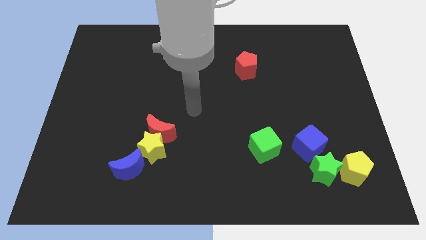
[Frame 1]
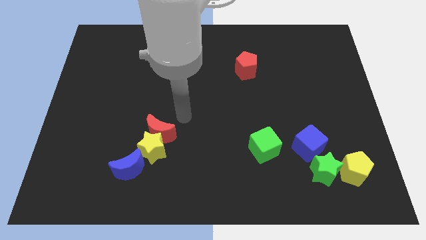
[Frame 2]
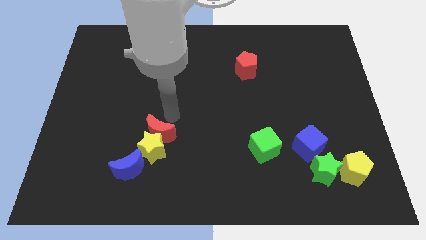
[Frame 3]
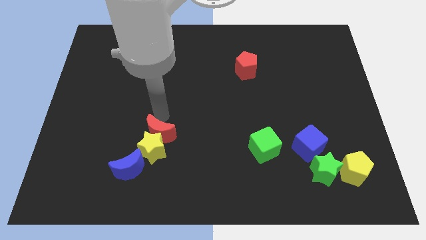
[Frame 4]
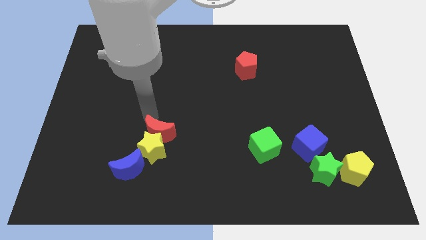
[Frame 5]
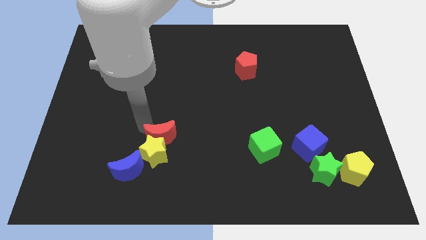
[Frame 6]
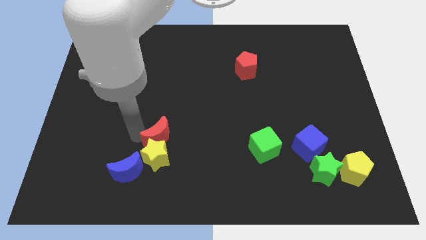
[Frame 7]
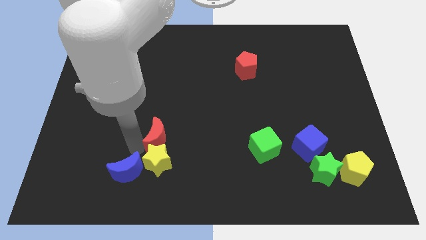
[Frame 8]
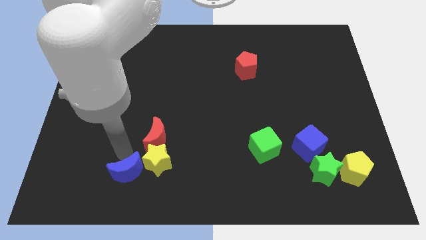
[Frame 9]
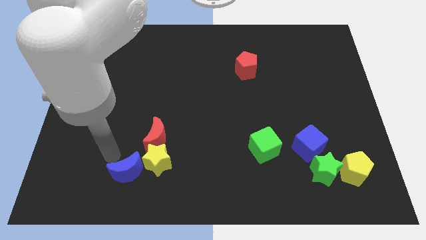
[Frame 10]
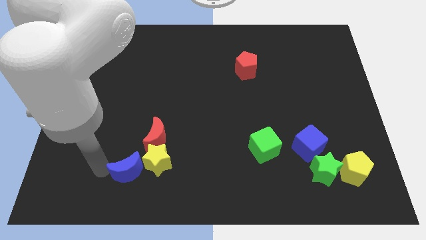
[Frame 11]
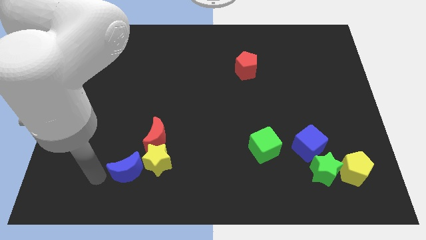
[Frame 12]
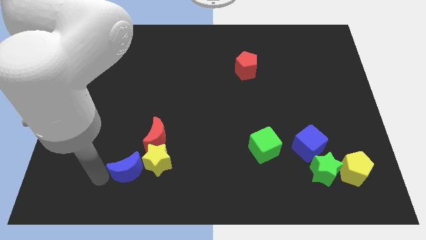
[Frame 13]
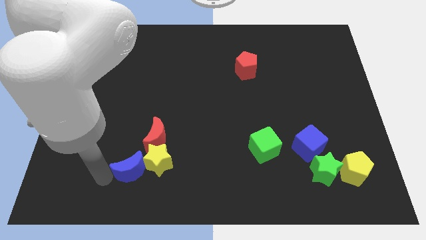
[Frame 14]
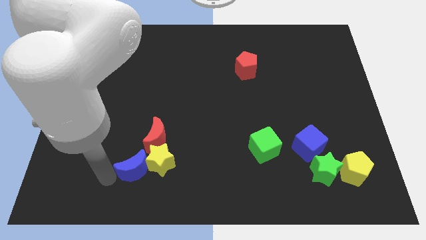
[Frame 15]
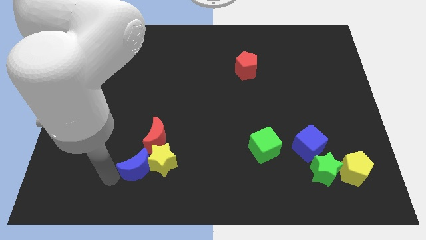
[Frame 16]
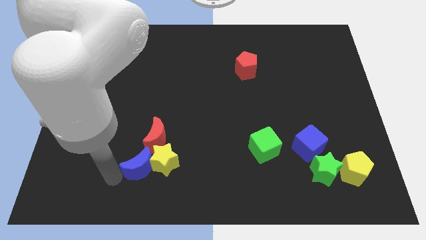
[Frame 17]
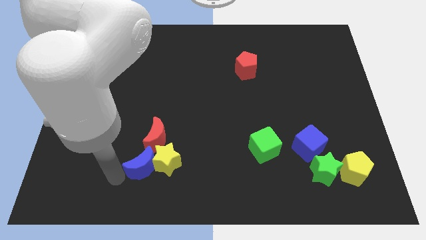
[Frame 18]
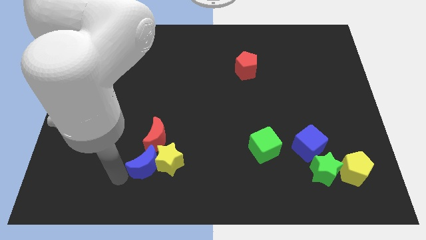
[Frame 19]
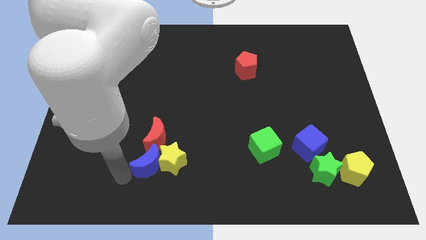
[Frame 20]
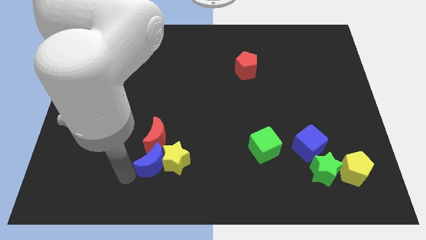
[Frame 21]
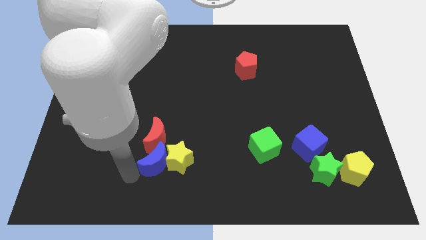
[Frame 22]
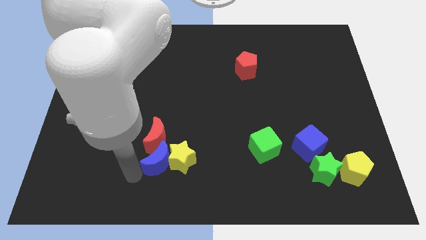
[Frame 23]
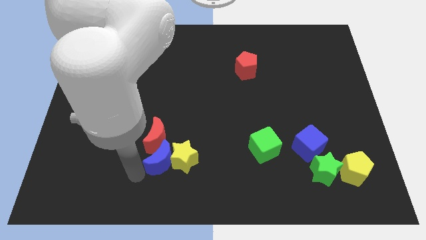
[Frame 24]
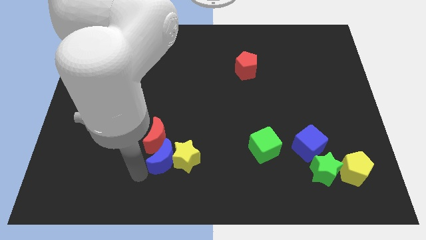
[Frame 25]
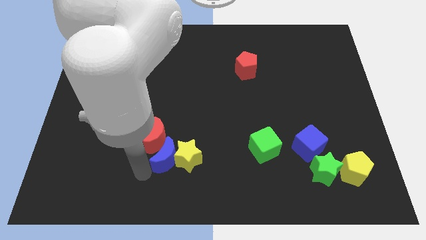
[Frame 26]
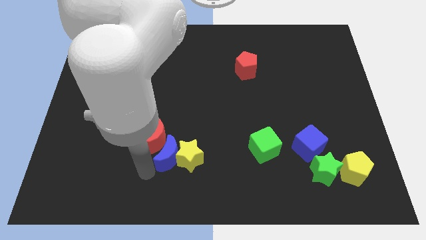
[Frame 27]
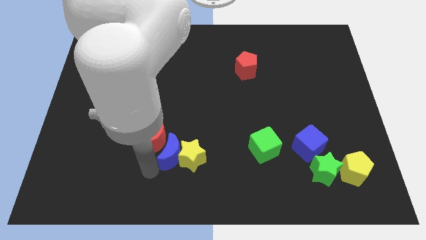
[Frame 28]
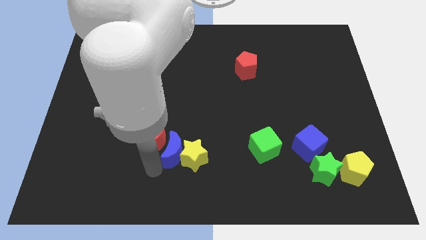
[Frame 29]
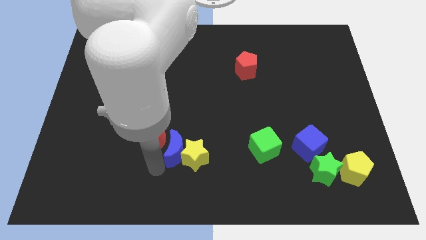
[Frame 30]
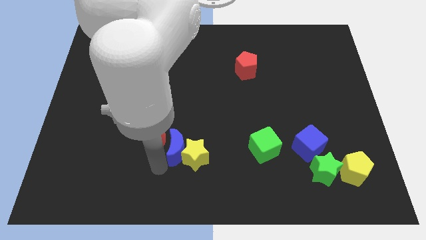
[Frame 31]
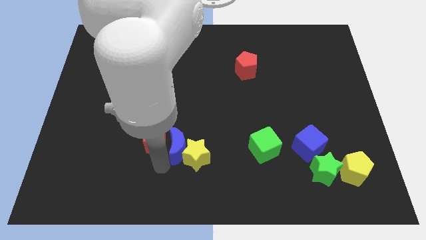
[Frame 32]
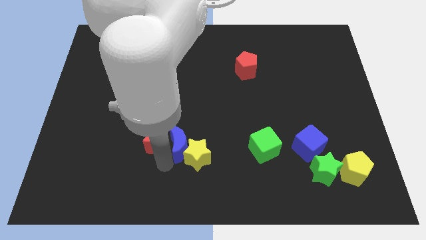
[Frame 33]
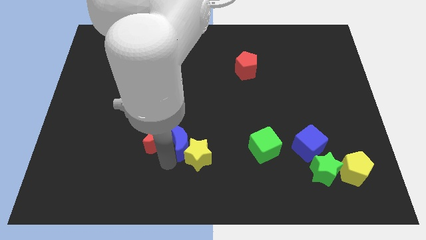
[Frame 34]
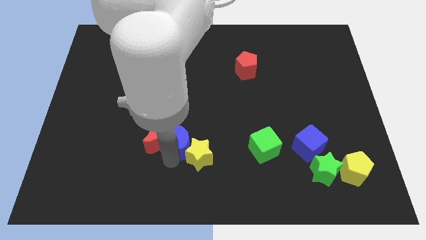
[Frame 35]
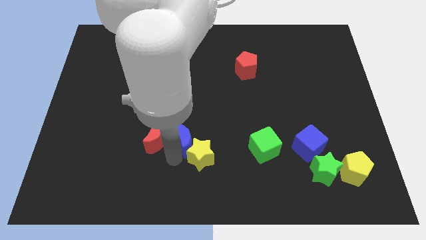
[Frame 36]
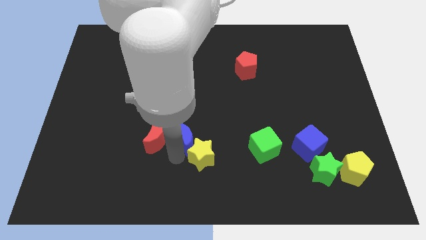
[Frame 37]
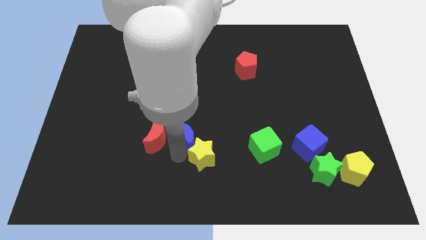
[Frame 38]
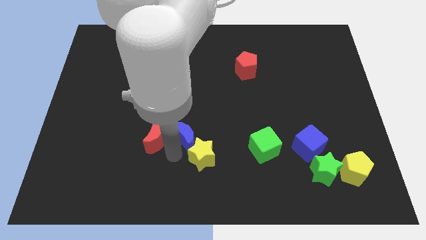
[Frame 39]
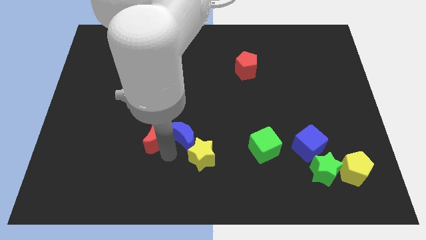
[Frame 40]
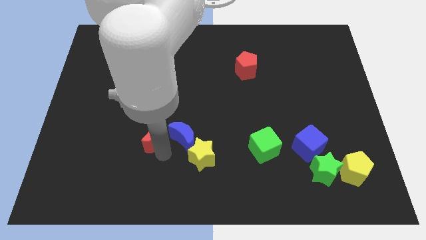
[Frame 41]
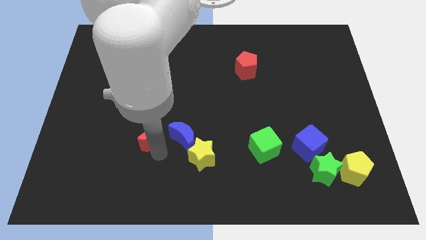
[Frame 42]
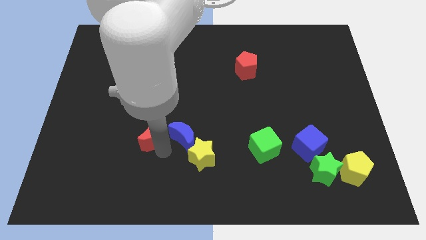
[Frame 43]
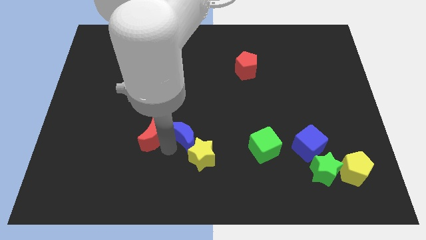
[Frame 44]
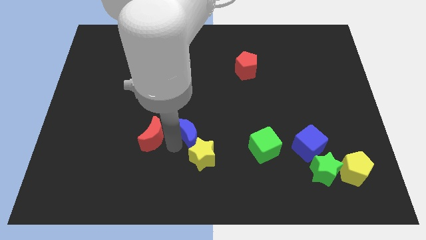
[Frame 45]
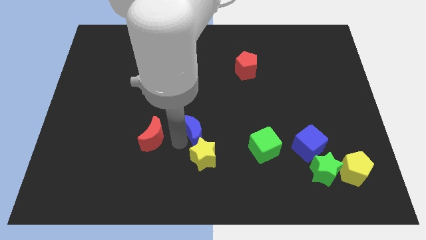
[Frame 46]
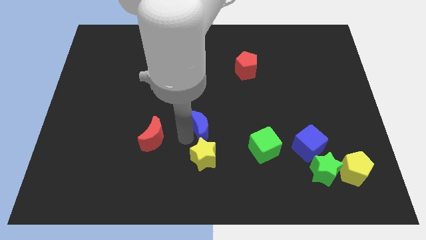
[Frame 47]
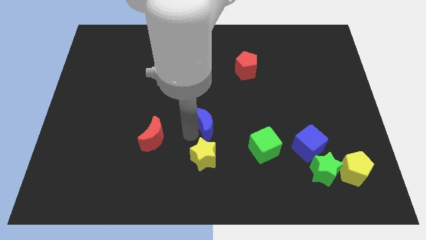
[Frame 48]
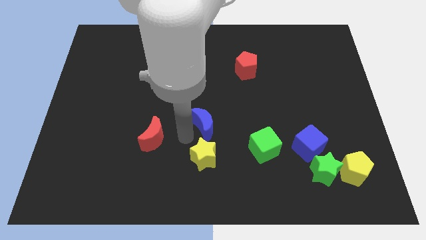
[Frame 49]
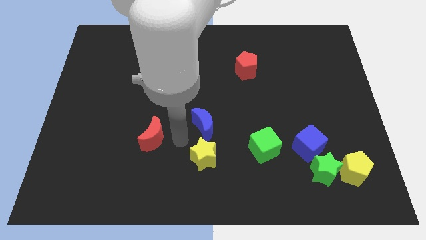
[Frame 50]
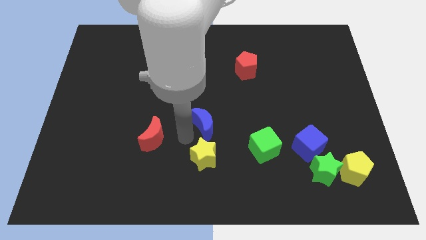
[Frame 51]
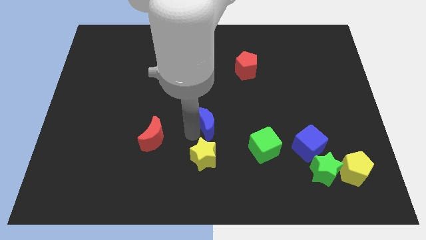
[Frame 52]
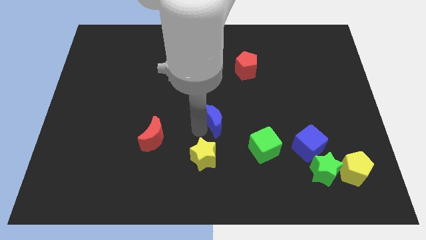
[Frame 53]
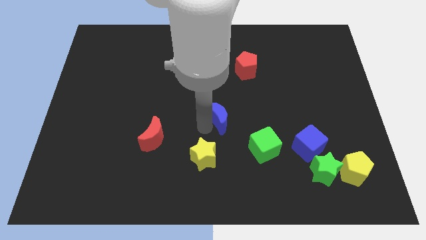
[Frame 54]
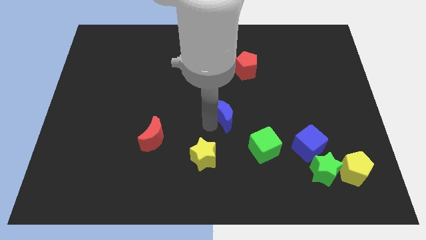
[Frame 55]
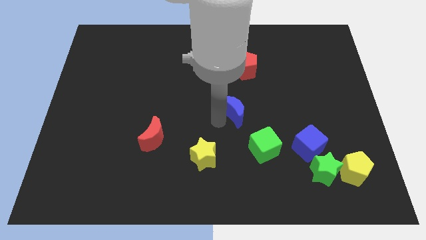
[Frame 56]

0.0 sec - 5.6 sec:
put the blue moon to the bottom side of the red pentagon

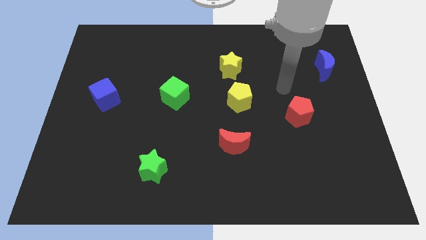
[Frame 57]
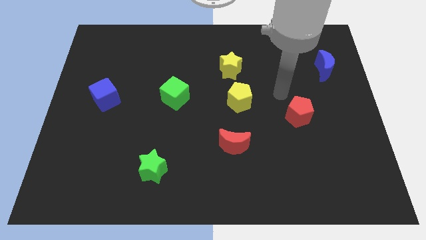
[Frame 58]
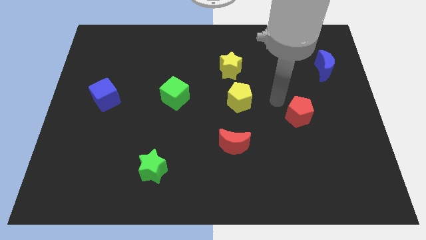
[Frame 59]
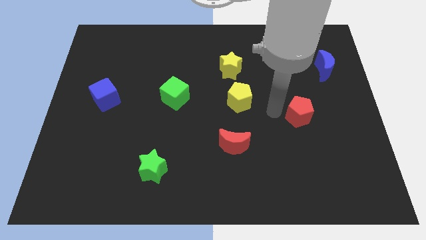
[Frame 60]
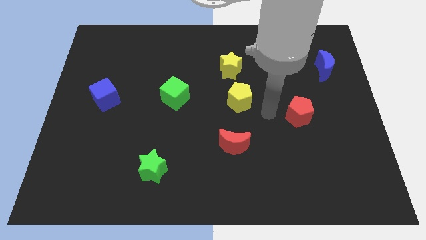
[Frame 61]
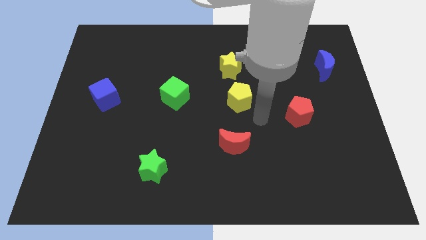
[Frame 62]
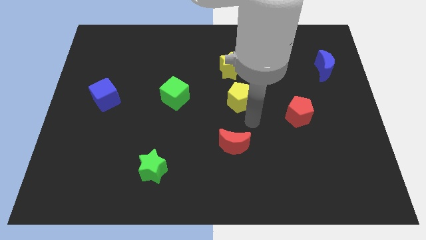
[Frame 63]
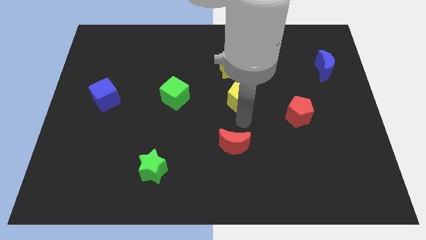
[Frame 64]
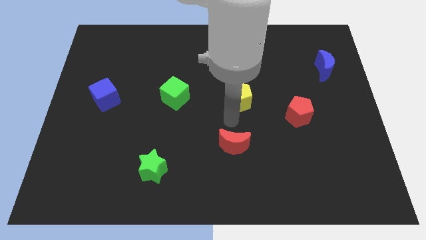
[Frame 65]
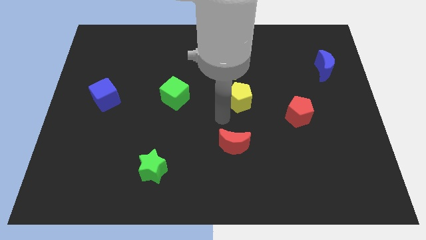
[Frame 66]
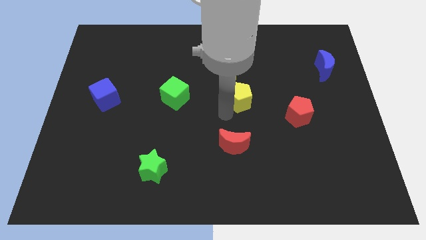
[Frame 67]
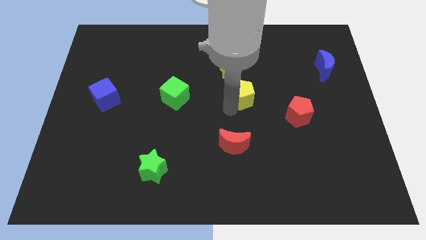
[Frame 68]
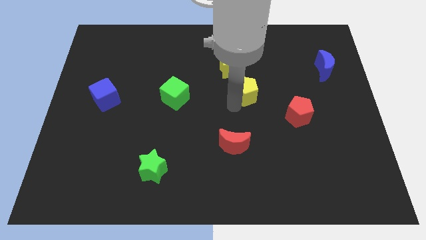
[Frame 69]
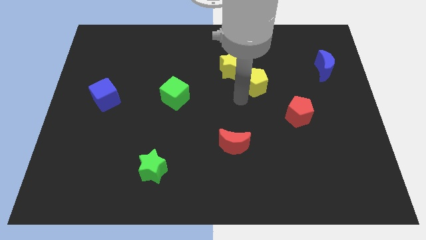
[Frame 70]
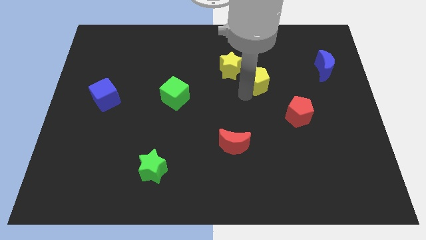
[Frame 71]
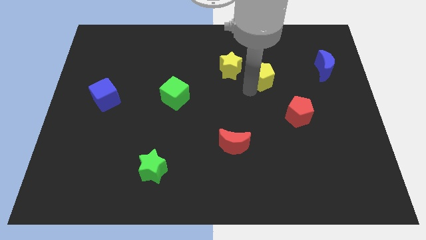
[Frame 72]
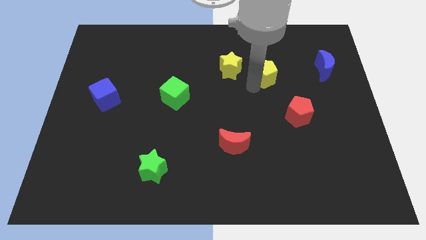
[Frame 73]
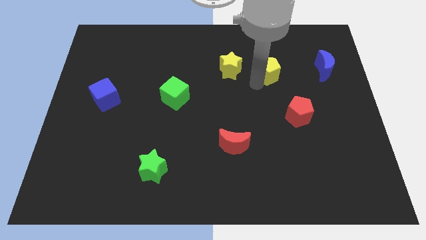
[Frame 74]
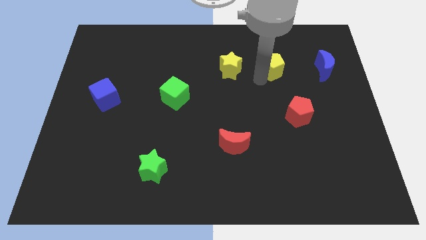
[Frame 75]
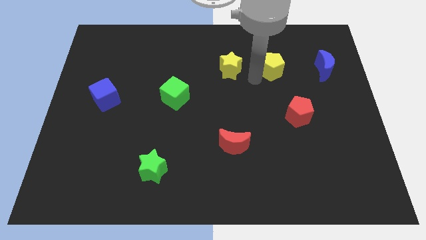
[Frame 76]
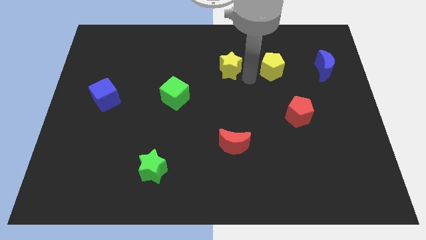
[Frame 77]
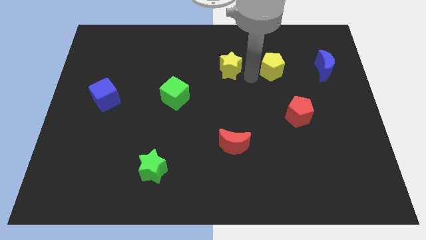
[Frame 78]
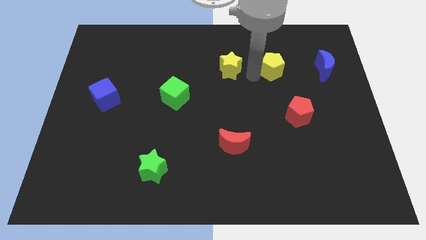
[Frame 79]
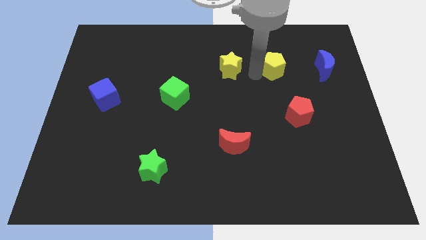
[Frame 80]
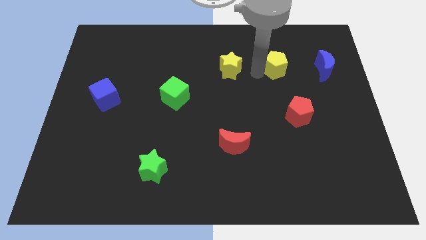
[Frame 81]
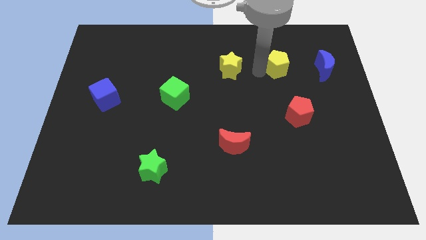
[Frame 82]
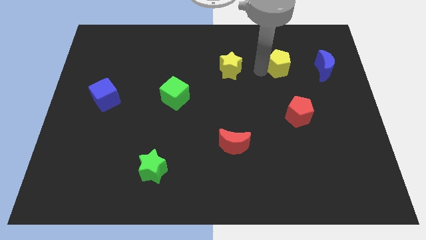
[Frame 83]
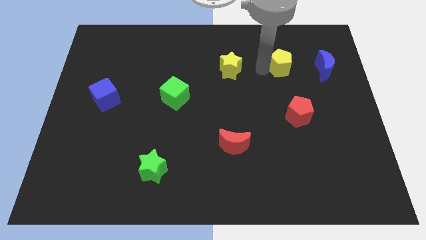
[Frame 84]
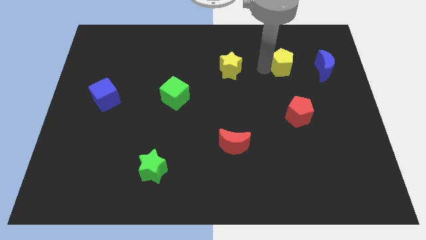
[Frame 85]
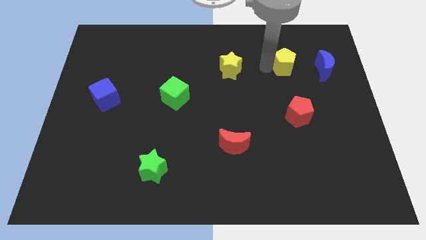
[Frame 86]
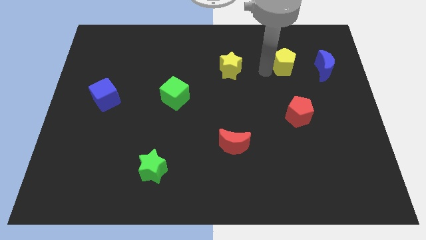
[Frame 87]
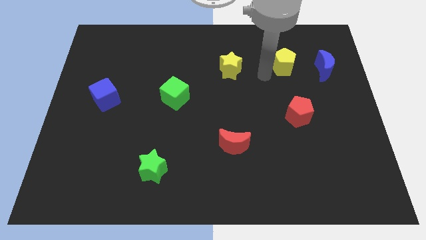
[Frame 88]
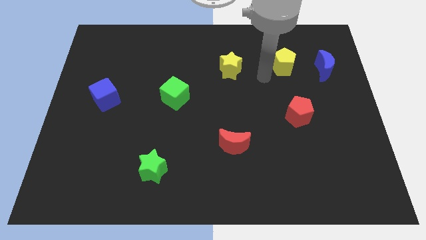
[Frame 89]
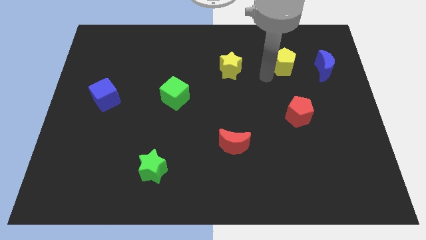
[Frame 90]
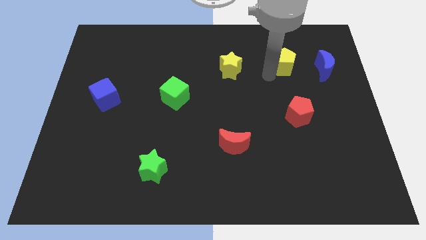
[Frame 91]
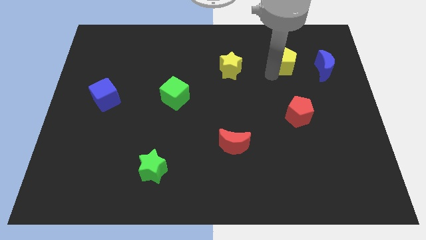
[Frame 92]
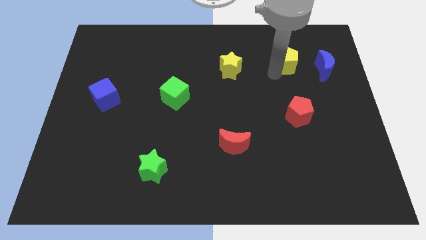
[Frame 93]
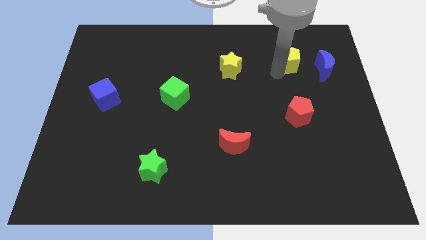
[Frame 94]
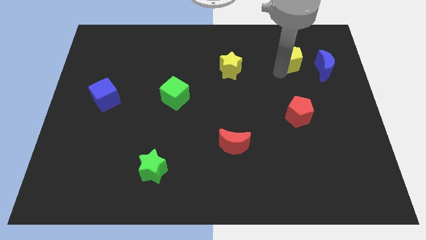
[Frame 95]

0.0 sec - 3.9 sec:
put the yellow pentagon diagonally up and to the left of the blue moon
